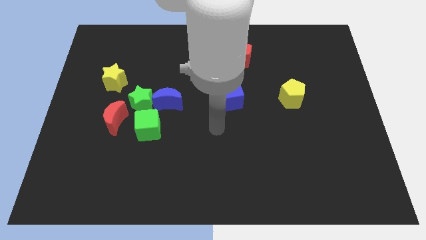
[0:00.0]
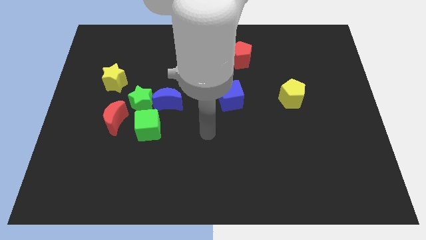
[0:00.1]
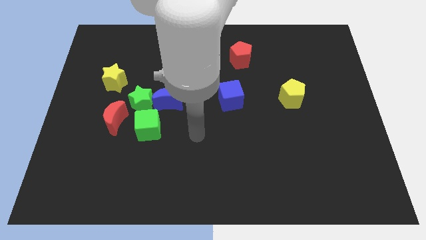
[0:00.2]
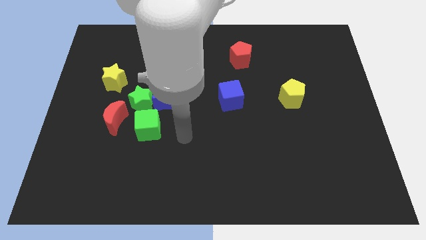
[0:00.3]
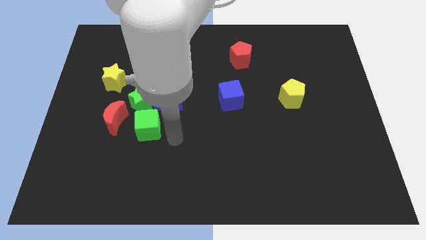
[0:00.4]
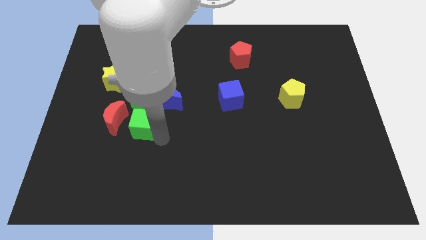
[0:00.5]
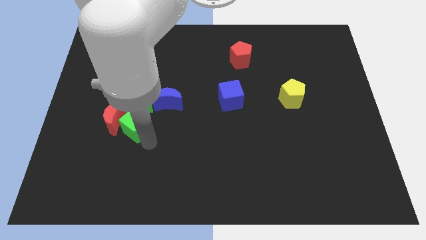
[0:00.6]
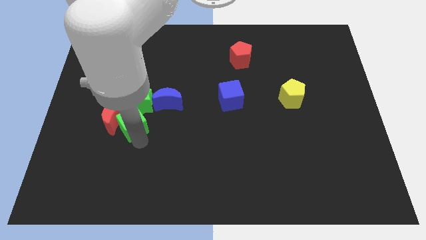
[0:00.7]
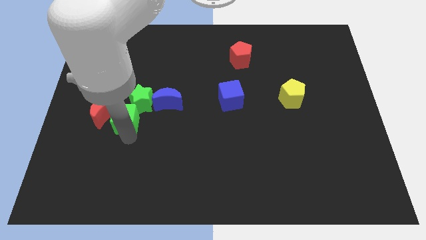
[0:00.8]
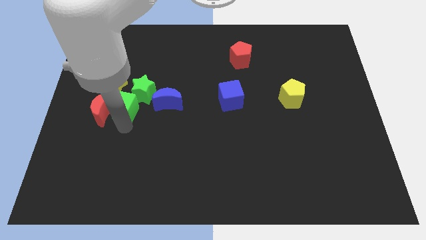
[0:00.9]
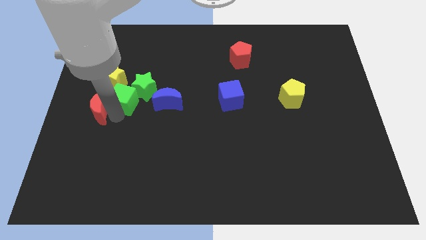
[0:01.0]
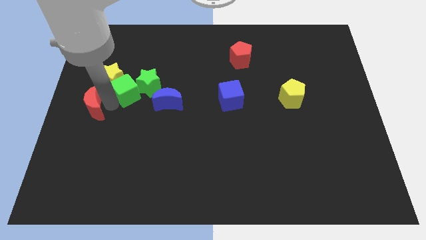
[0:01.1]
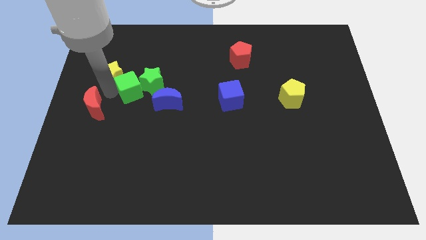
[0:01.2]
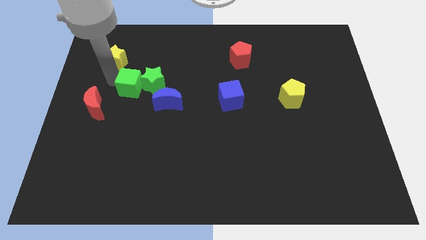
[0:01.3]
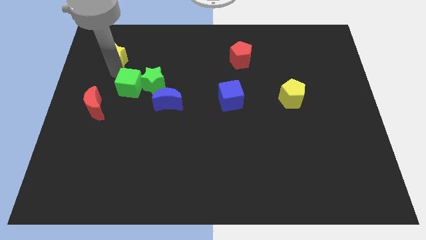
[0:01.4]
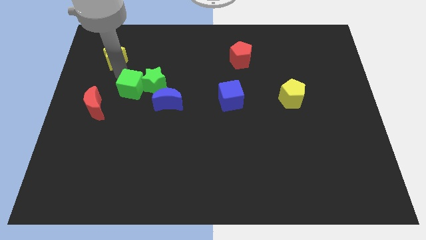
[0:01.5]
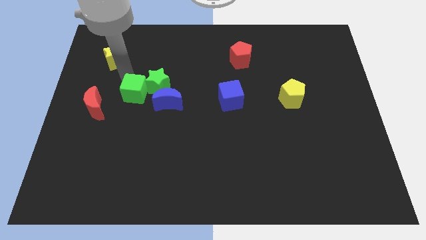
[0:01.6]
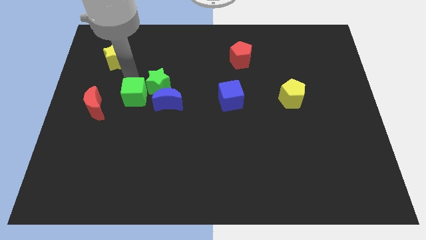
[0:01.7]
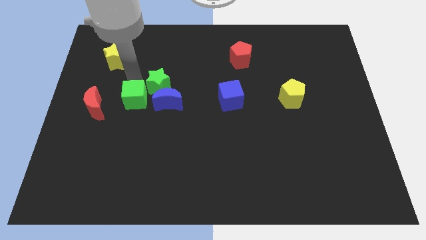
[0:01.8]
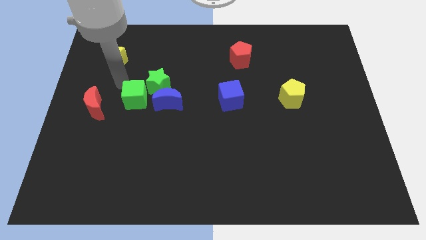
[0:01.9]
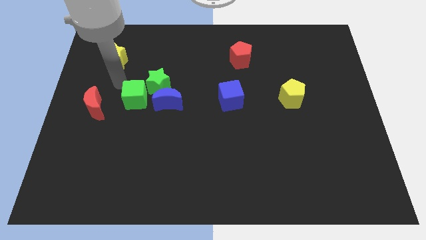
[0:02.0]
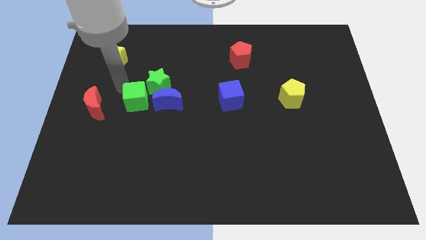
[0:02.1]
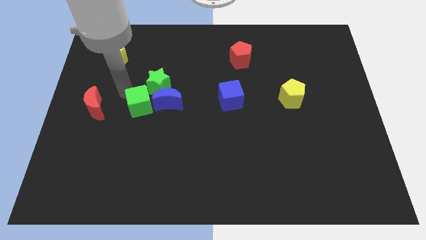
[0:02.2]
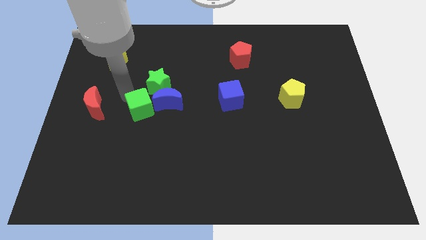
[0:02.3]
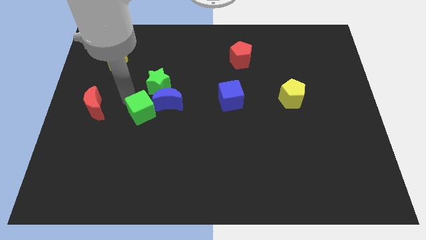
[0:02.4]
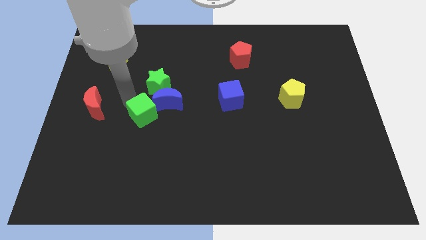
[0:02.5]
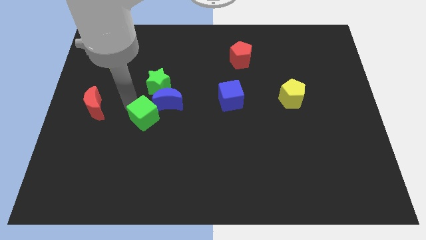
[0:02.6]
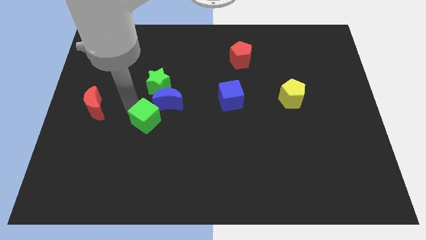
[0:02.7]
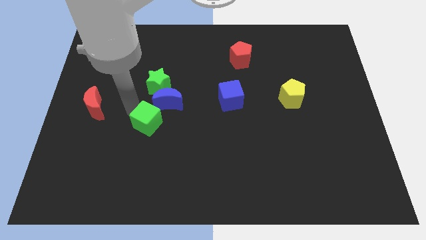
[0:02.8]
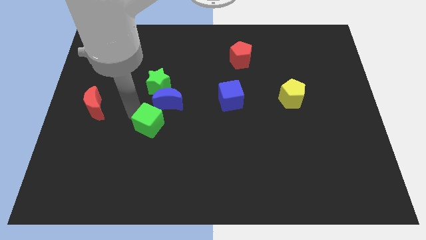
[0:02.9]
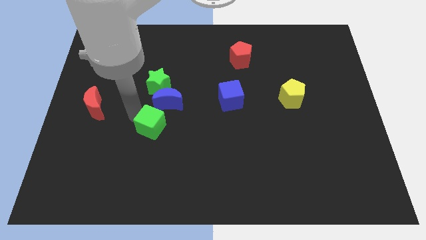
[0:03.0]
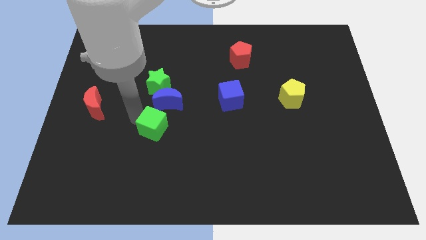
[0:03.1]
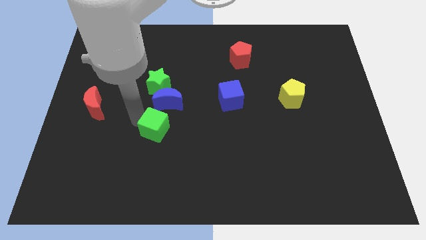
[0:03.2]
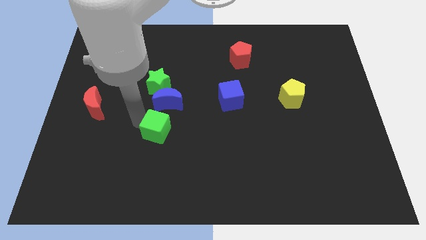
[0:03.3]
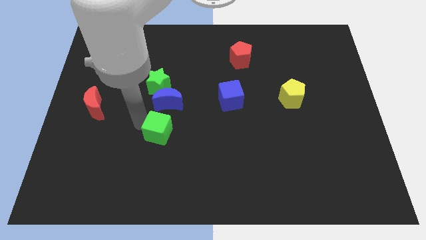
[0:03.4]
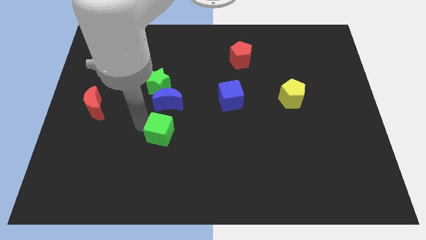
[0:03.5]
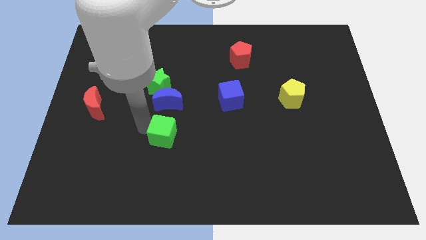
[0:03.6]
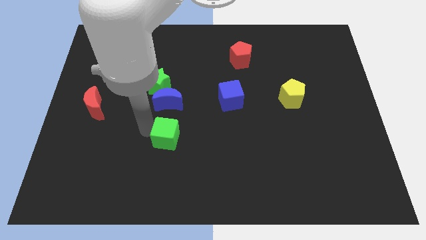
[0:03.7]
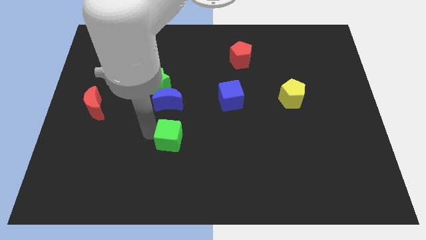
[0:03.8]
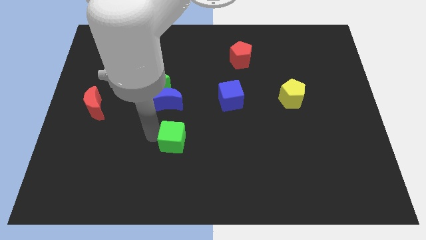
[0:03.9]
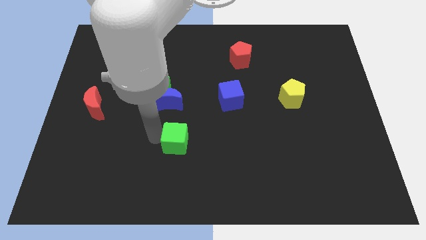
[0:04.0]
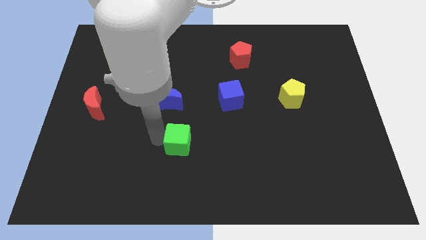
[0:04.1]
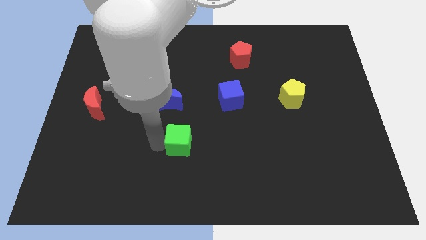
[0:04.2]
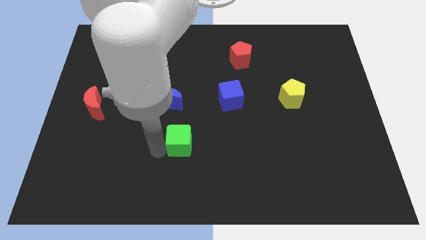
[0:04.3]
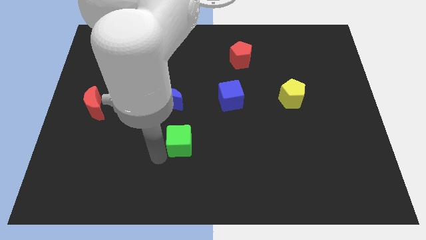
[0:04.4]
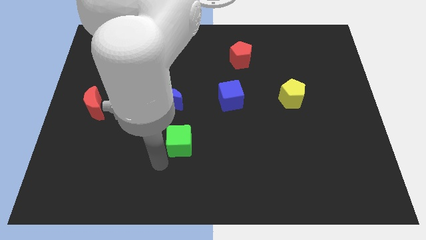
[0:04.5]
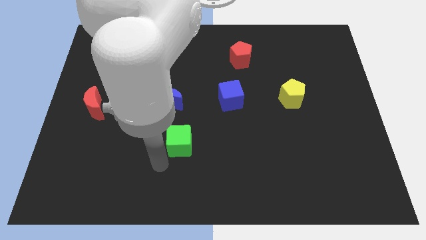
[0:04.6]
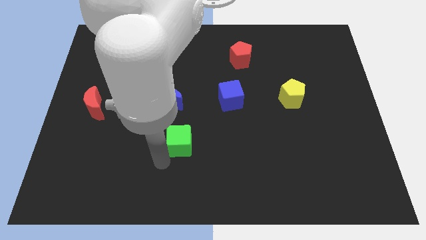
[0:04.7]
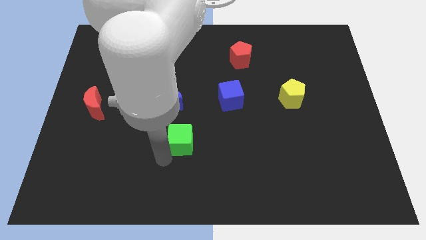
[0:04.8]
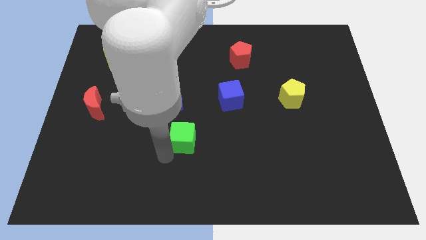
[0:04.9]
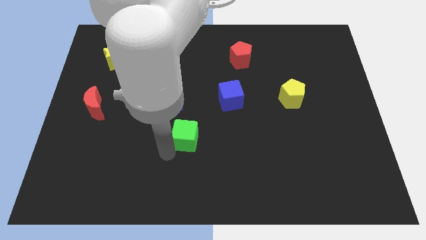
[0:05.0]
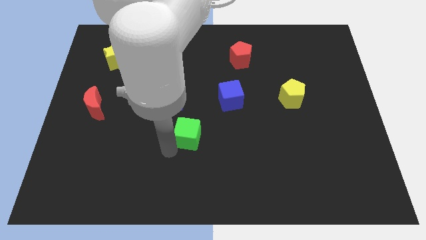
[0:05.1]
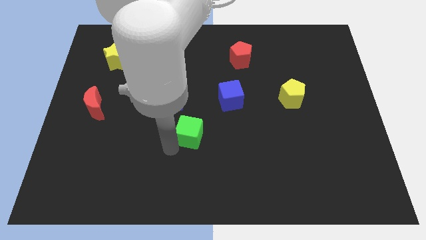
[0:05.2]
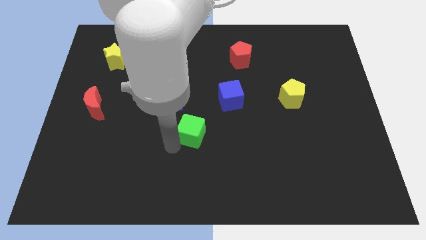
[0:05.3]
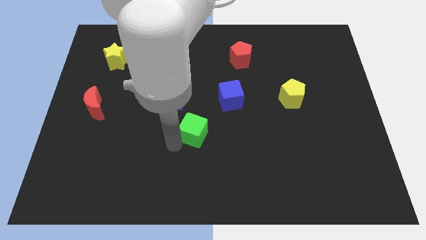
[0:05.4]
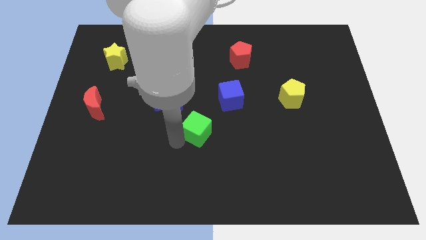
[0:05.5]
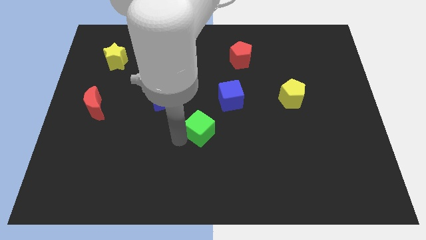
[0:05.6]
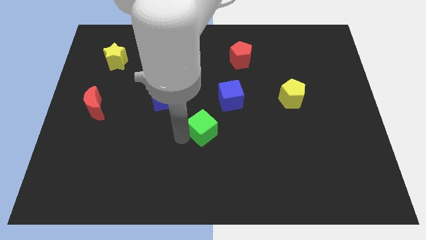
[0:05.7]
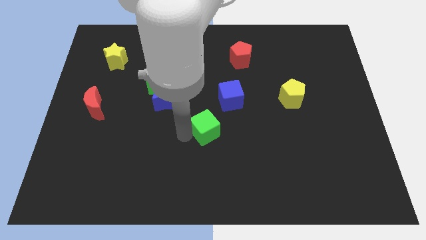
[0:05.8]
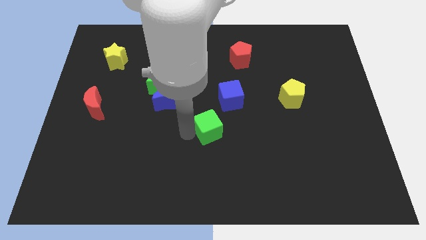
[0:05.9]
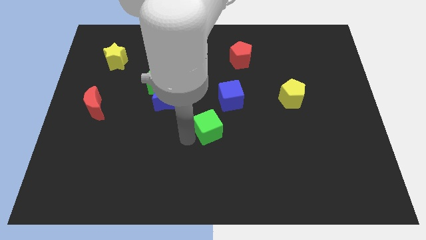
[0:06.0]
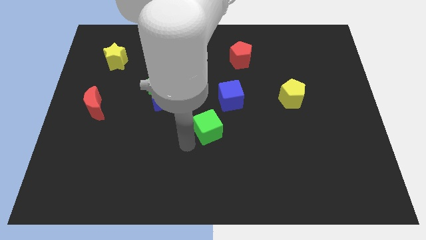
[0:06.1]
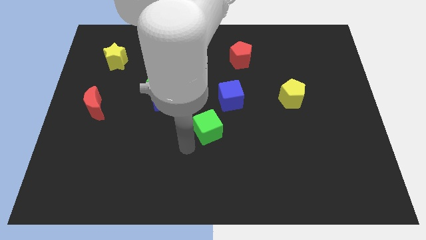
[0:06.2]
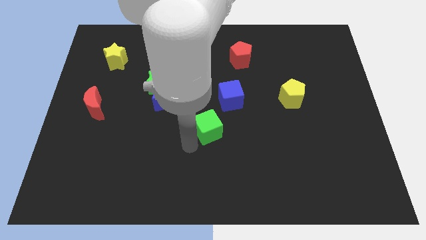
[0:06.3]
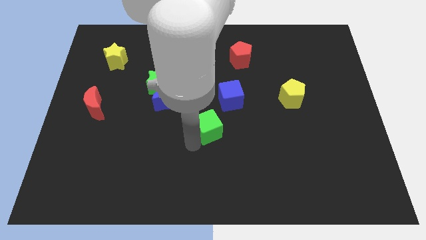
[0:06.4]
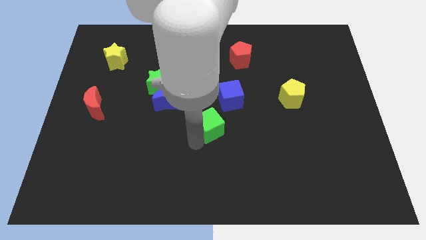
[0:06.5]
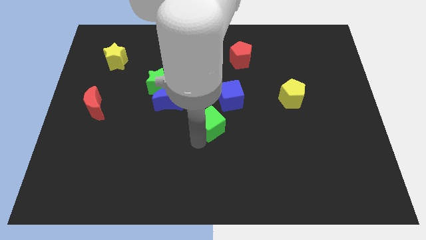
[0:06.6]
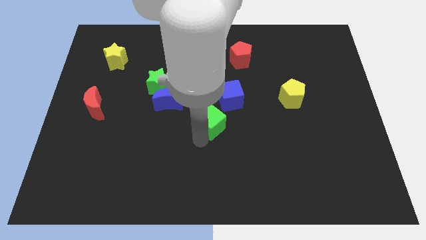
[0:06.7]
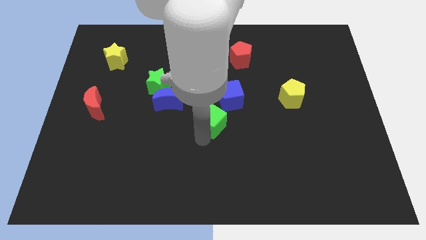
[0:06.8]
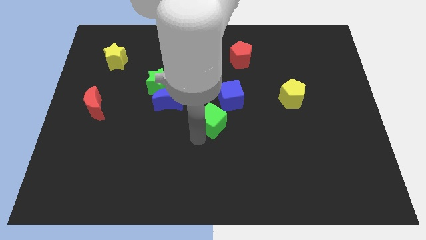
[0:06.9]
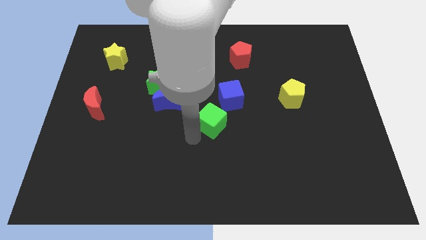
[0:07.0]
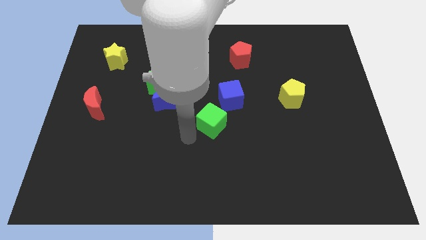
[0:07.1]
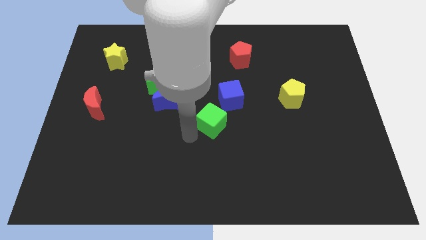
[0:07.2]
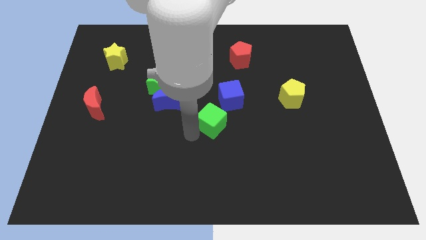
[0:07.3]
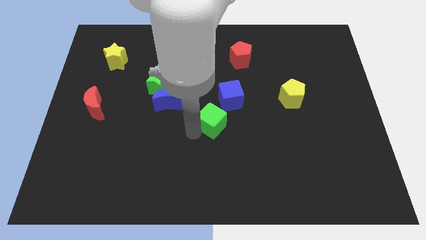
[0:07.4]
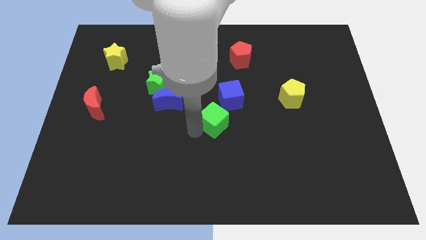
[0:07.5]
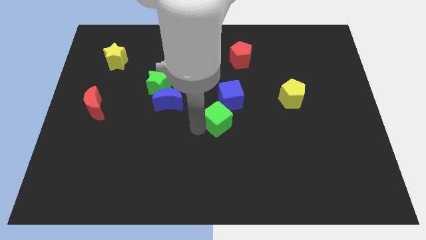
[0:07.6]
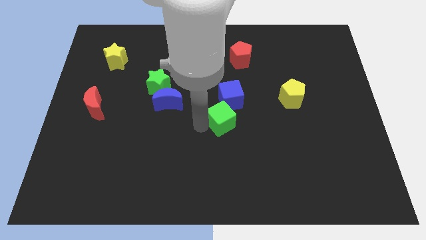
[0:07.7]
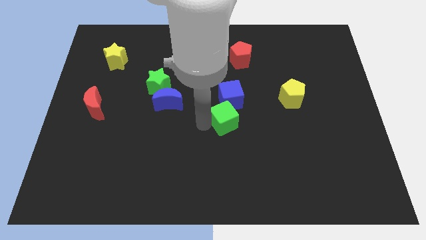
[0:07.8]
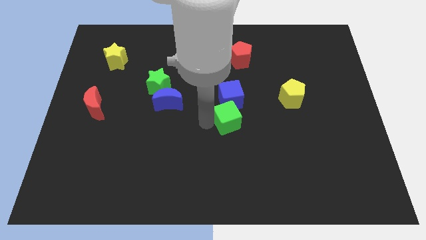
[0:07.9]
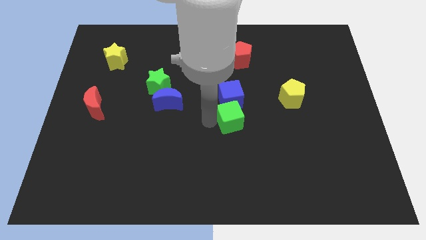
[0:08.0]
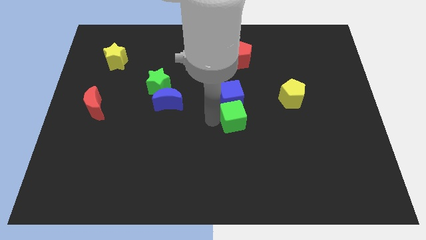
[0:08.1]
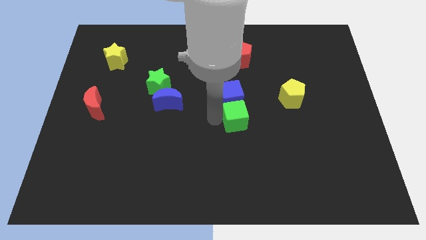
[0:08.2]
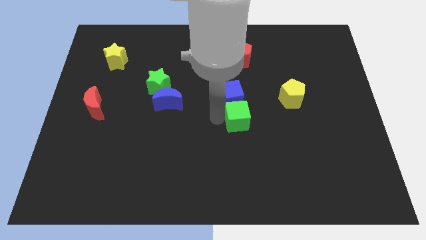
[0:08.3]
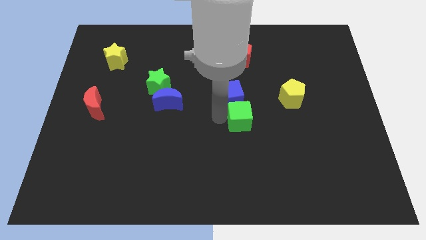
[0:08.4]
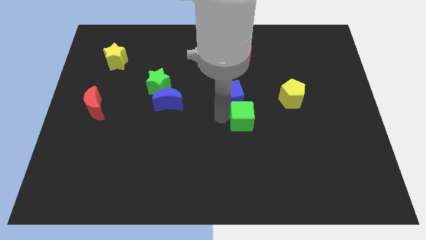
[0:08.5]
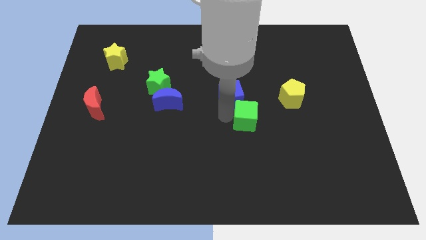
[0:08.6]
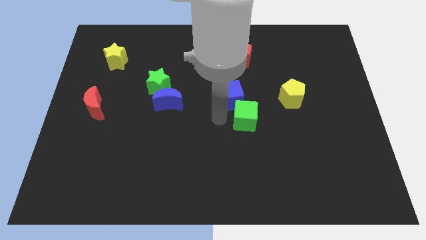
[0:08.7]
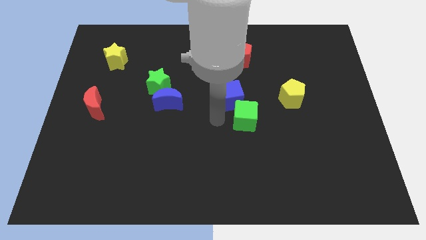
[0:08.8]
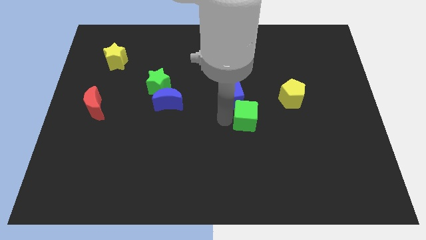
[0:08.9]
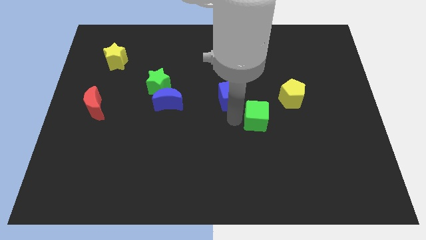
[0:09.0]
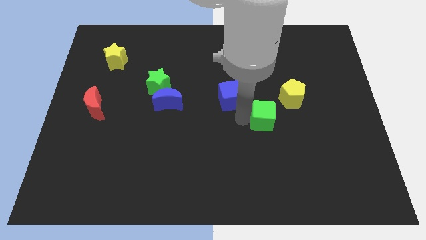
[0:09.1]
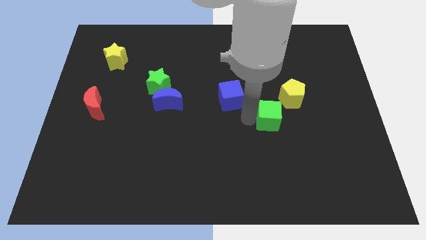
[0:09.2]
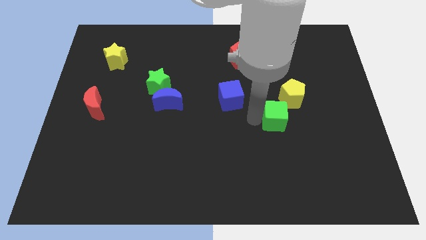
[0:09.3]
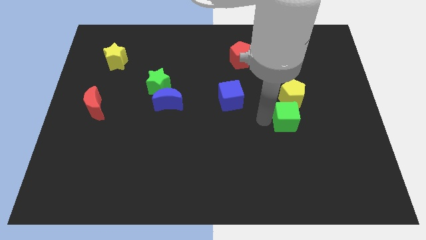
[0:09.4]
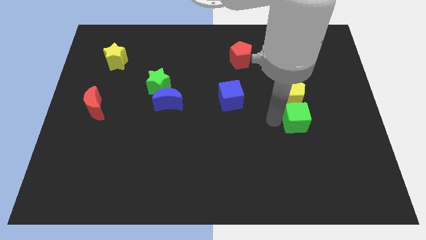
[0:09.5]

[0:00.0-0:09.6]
move the green cube diagonally down and to the right of the yellow pentagon
